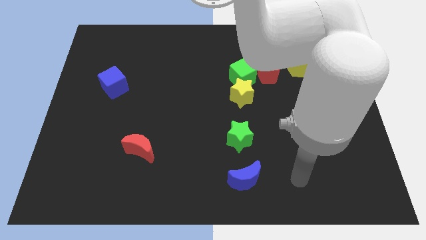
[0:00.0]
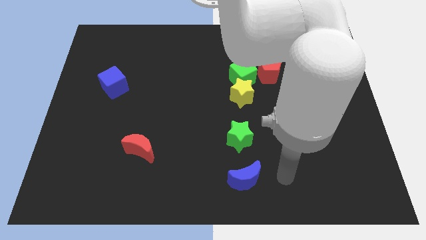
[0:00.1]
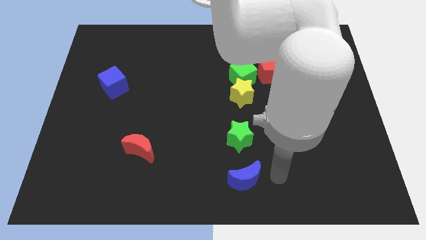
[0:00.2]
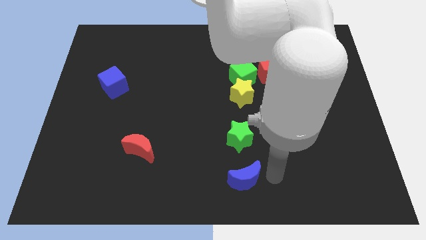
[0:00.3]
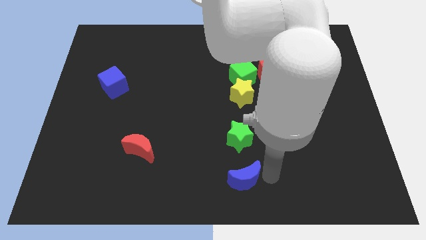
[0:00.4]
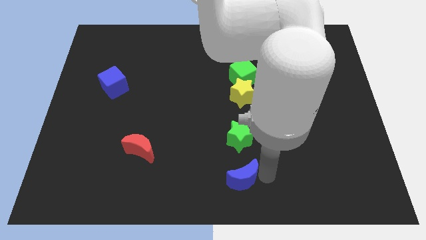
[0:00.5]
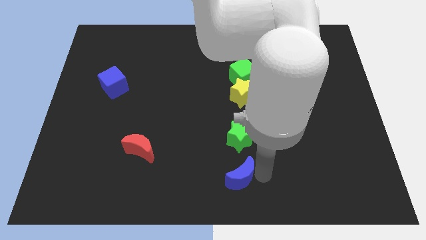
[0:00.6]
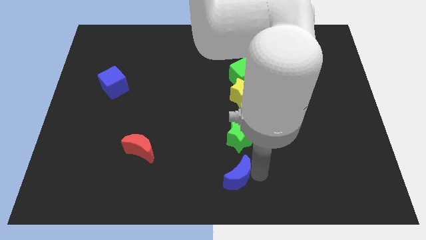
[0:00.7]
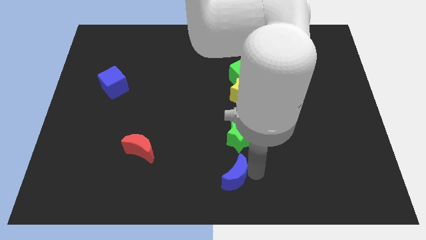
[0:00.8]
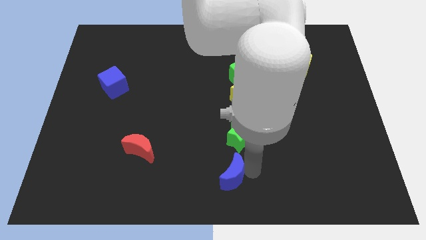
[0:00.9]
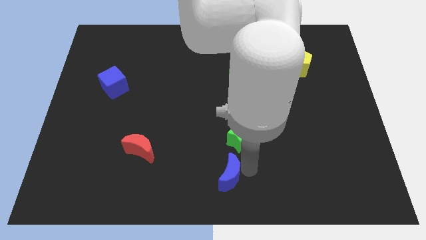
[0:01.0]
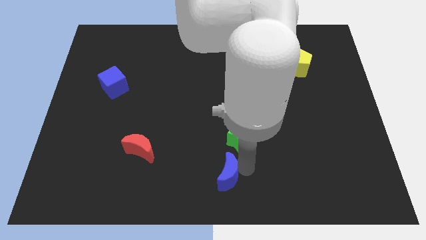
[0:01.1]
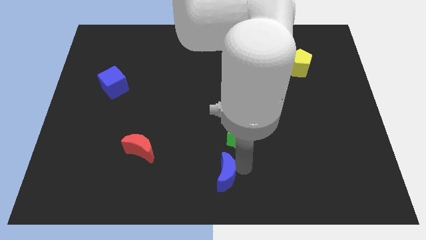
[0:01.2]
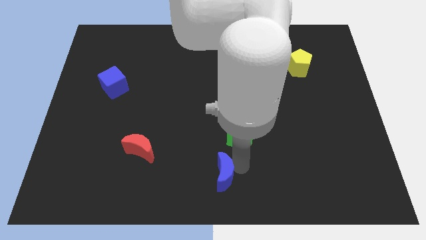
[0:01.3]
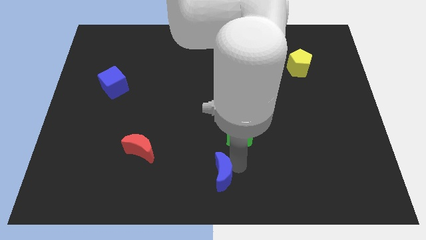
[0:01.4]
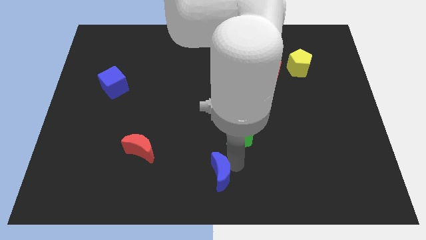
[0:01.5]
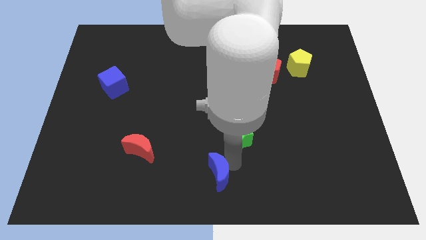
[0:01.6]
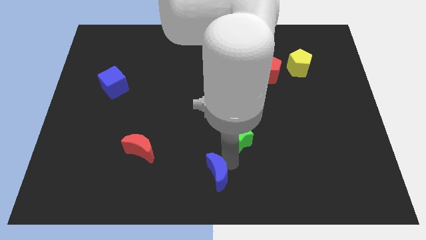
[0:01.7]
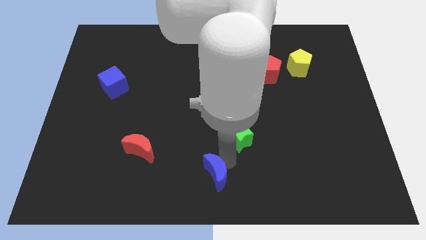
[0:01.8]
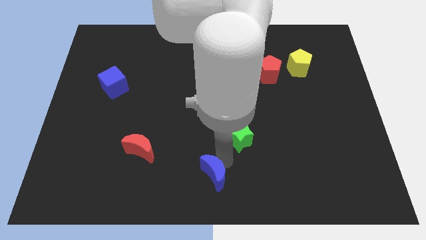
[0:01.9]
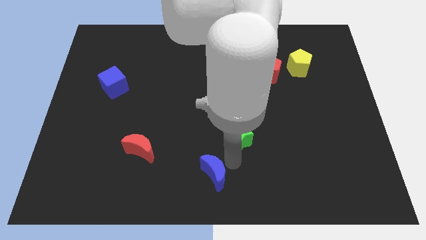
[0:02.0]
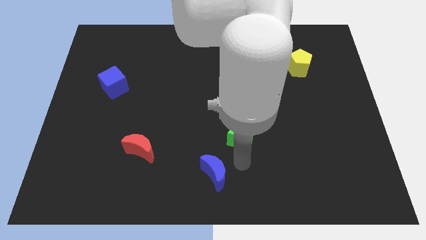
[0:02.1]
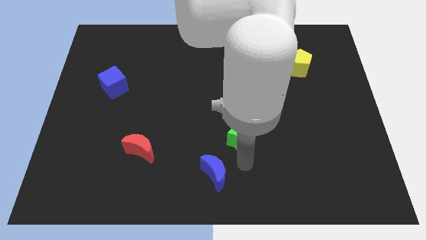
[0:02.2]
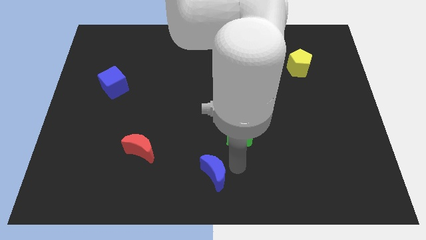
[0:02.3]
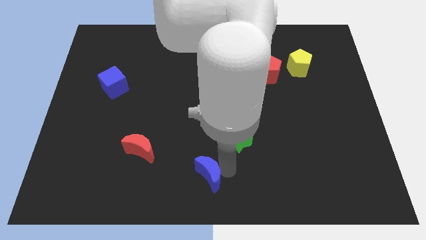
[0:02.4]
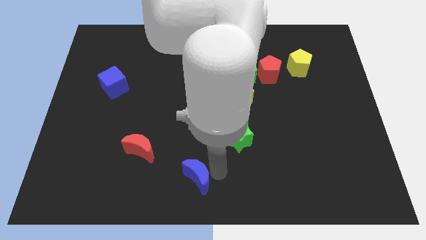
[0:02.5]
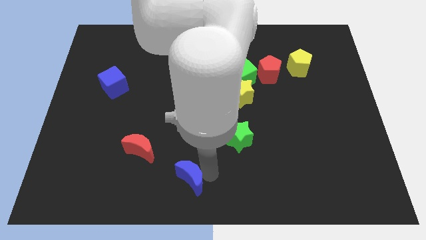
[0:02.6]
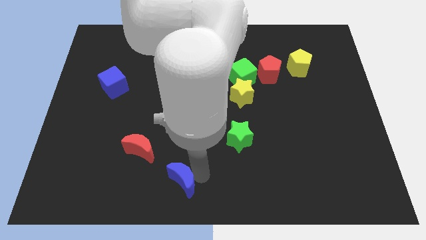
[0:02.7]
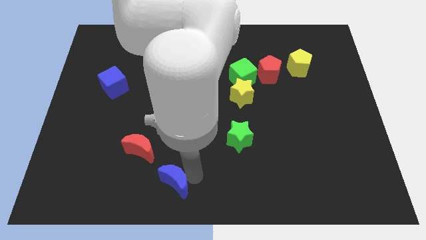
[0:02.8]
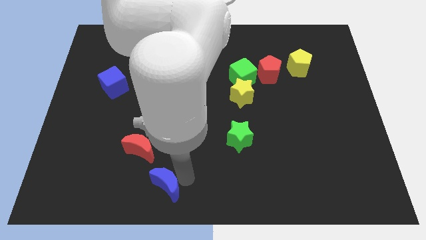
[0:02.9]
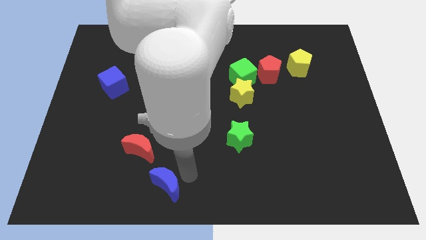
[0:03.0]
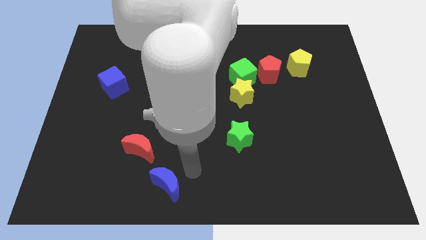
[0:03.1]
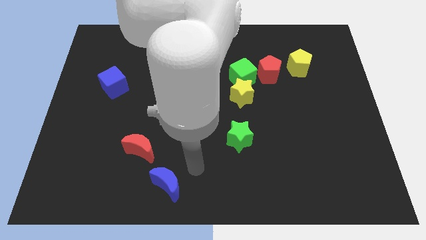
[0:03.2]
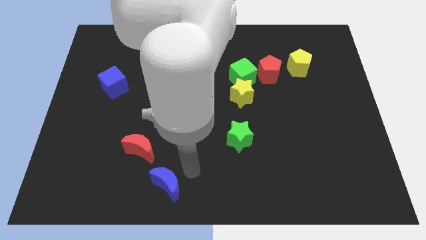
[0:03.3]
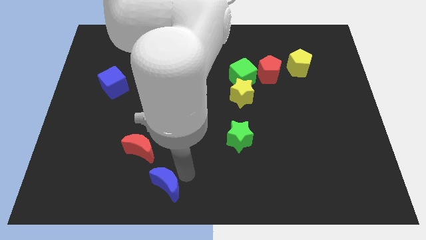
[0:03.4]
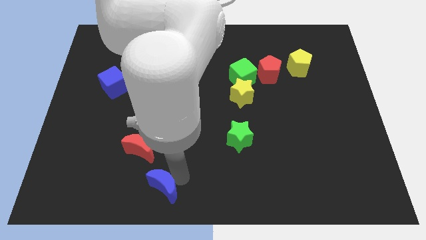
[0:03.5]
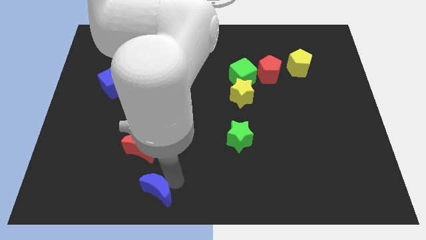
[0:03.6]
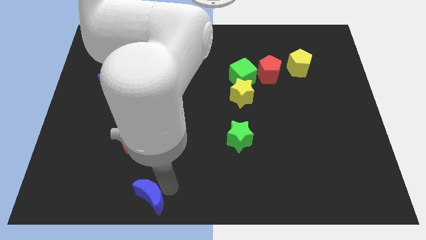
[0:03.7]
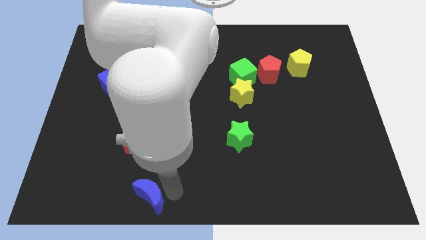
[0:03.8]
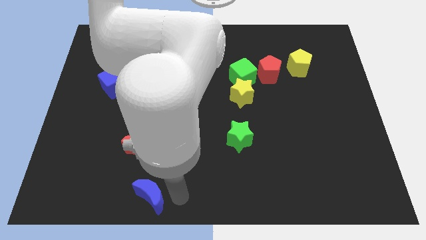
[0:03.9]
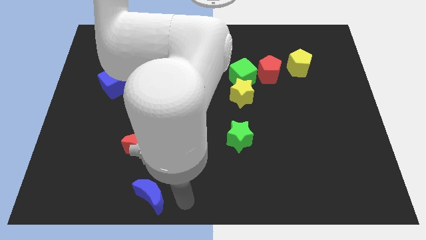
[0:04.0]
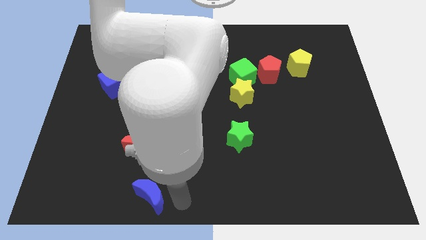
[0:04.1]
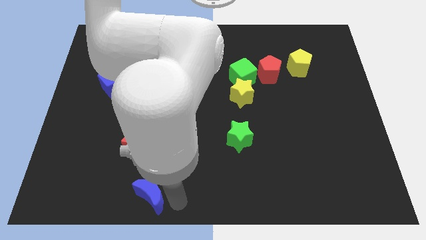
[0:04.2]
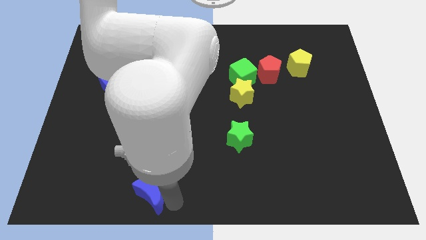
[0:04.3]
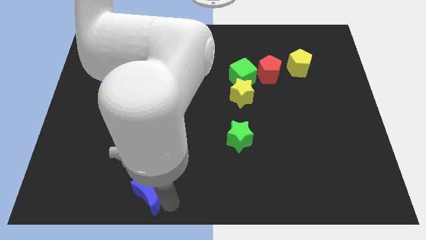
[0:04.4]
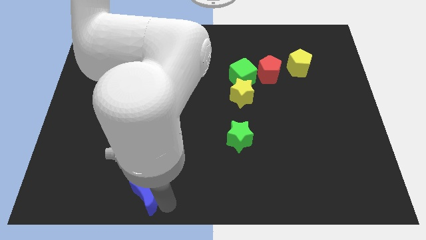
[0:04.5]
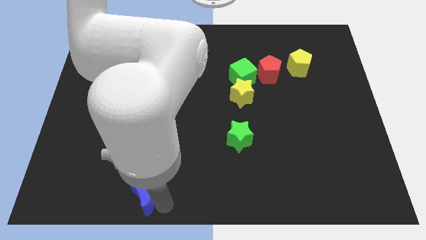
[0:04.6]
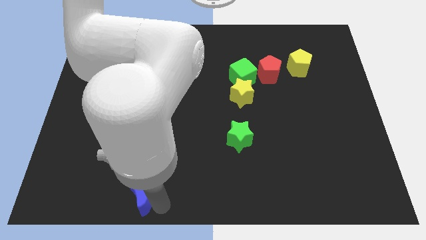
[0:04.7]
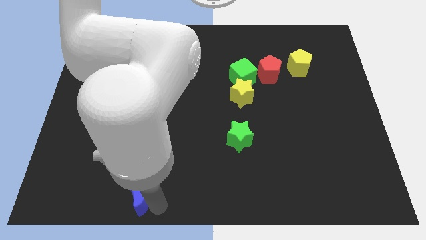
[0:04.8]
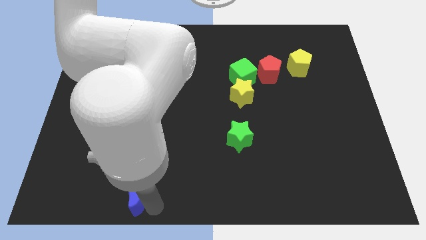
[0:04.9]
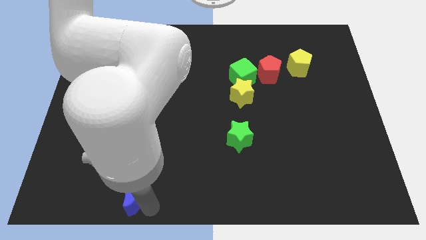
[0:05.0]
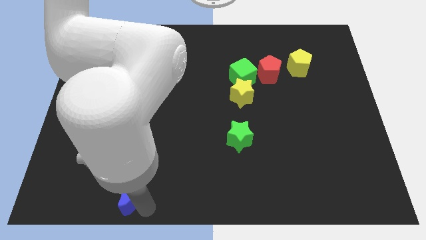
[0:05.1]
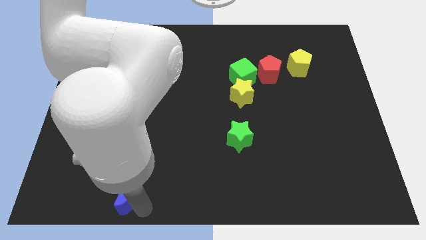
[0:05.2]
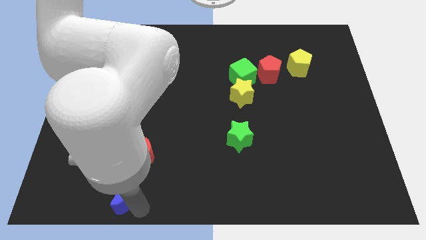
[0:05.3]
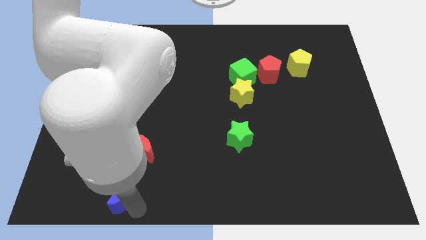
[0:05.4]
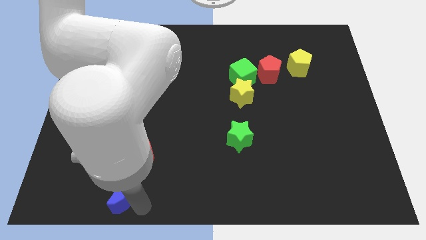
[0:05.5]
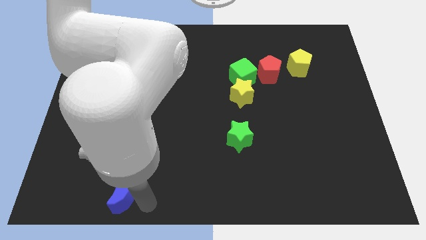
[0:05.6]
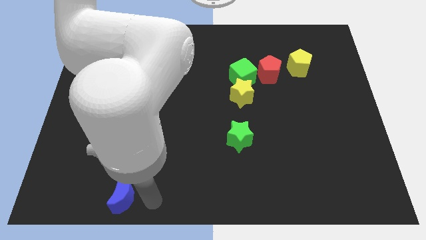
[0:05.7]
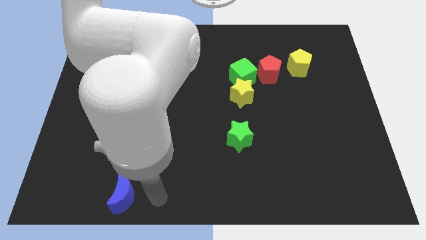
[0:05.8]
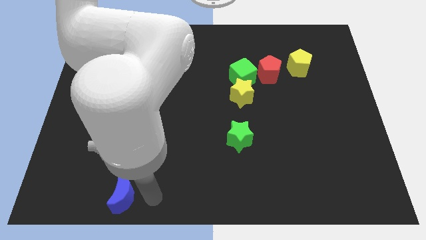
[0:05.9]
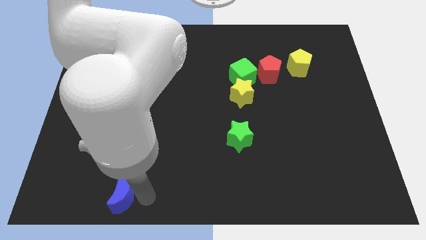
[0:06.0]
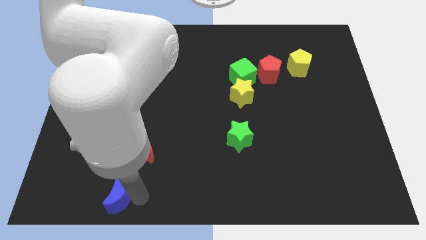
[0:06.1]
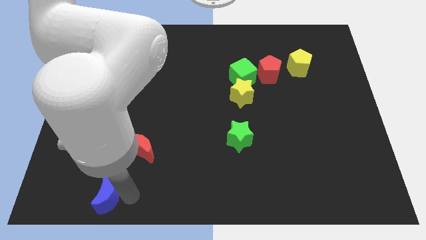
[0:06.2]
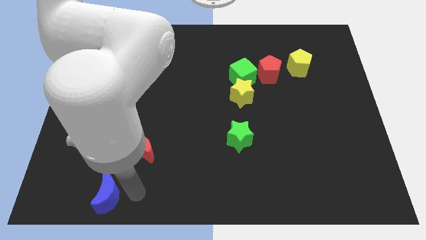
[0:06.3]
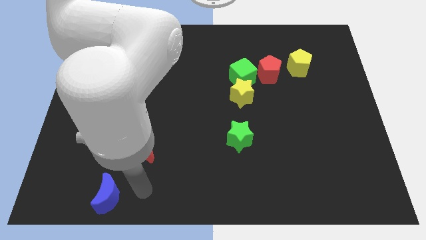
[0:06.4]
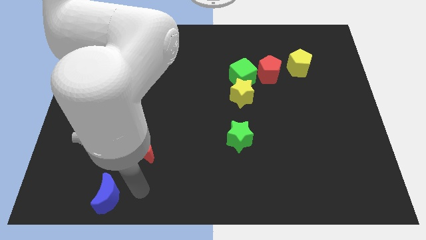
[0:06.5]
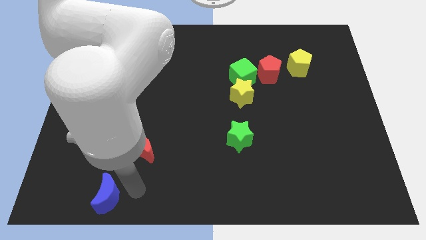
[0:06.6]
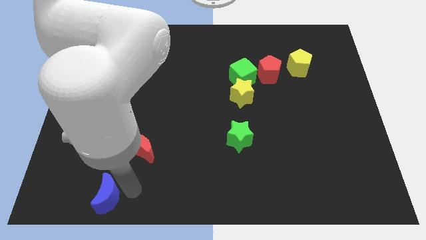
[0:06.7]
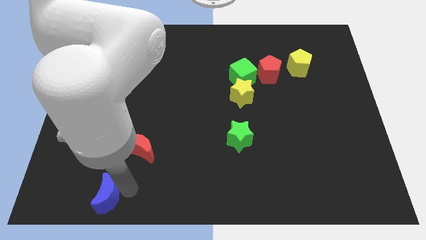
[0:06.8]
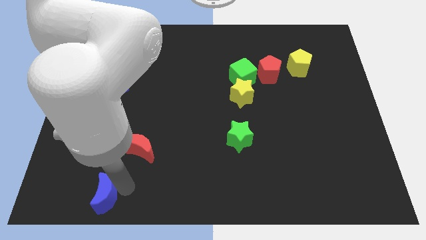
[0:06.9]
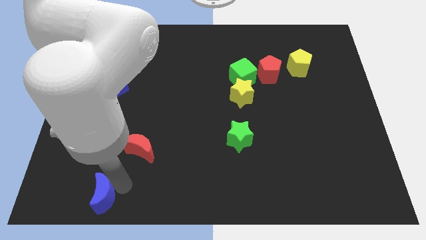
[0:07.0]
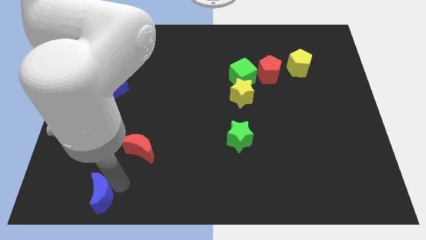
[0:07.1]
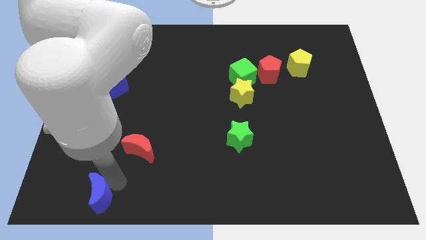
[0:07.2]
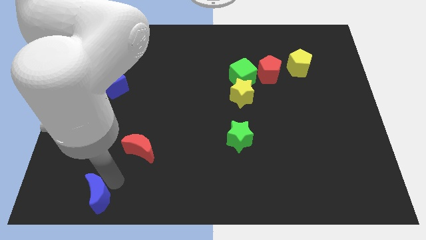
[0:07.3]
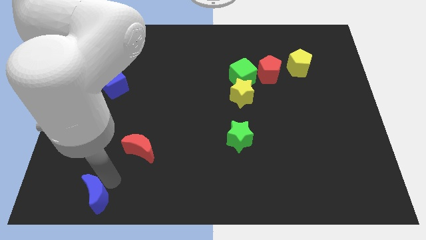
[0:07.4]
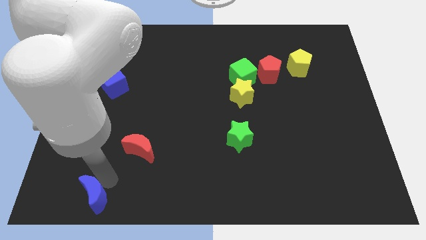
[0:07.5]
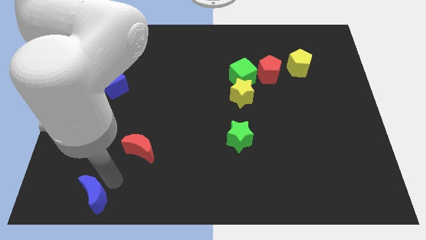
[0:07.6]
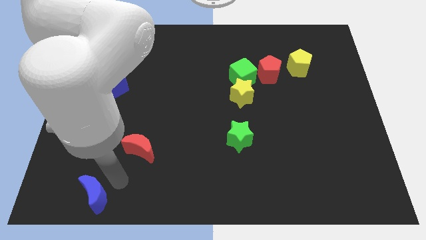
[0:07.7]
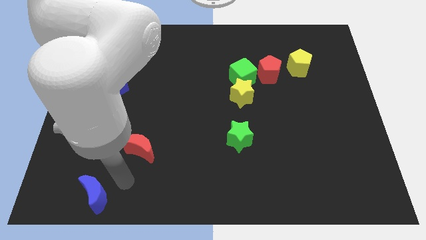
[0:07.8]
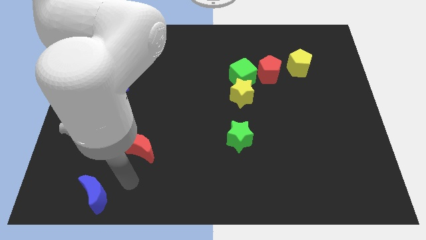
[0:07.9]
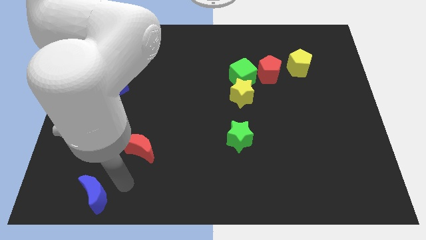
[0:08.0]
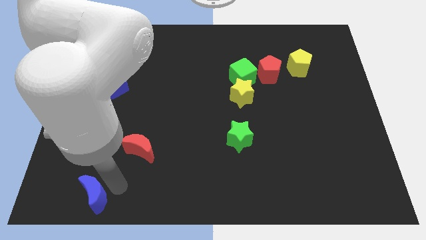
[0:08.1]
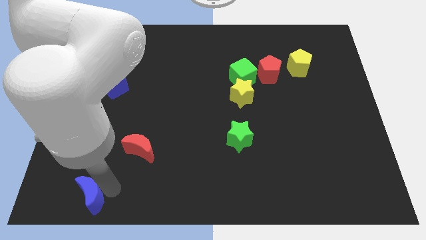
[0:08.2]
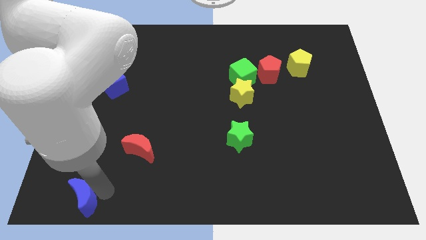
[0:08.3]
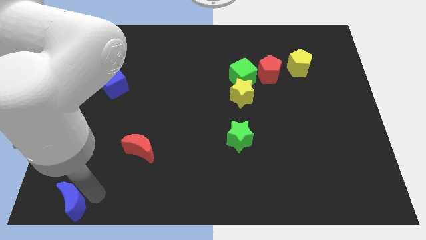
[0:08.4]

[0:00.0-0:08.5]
put the blue moon to the bottom left
